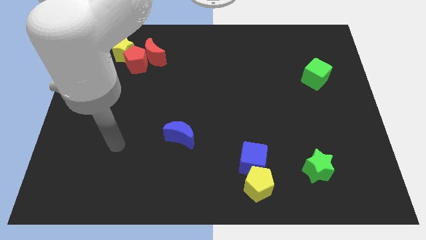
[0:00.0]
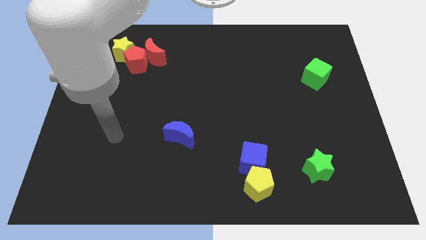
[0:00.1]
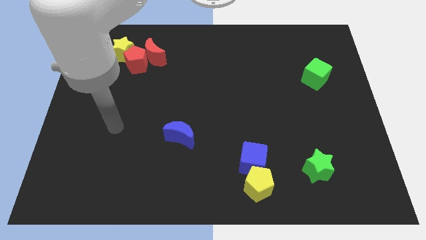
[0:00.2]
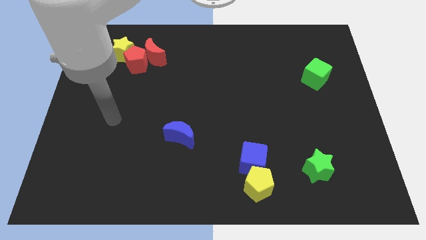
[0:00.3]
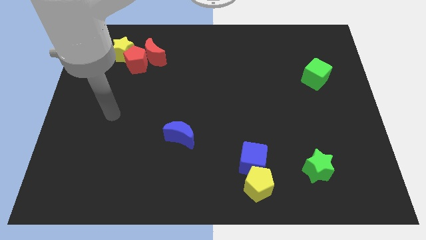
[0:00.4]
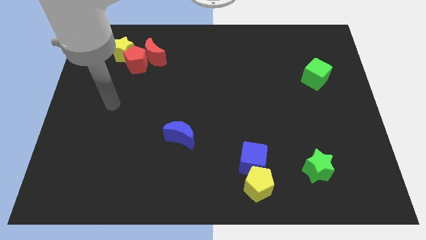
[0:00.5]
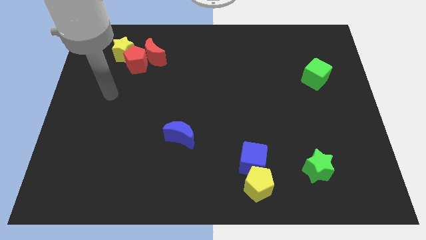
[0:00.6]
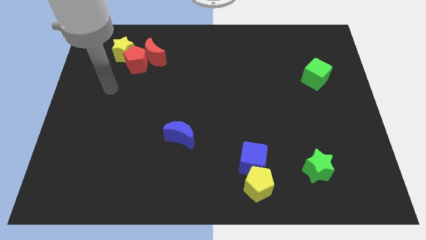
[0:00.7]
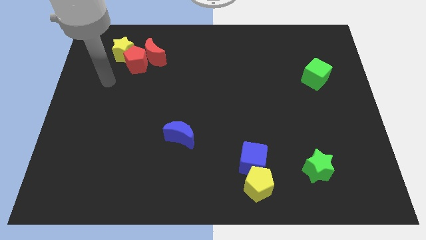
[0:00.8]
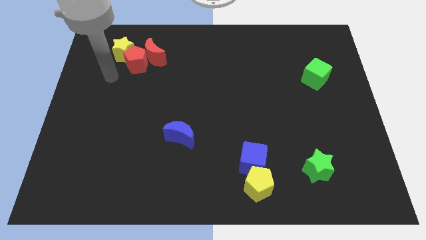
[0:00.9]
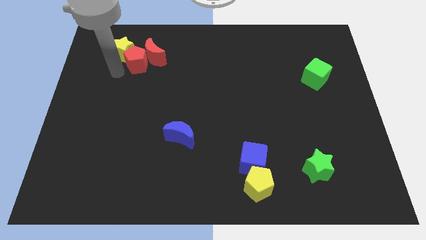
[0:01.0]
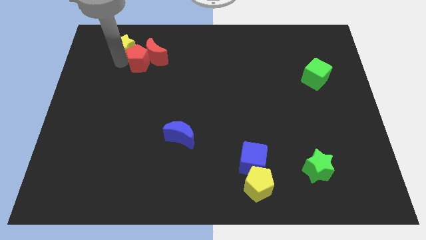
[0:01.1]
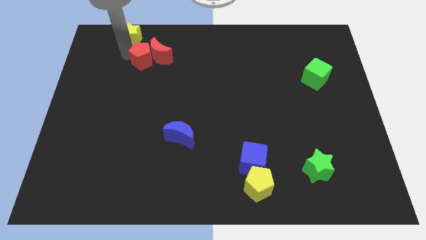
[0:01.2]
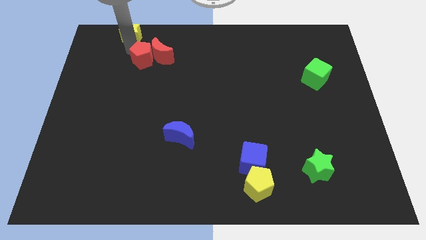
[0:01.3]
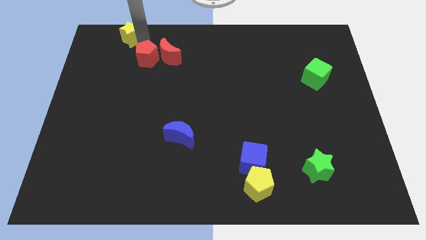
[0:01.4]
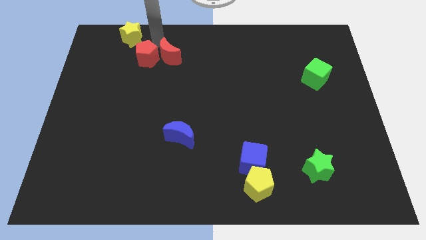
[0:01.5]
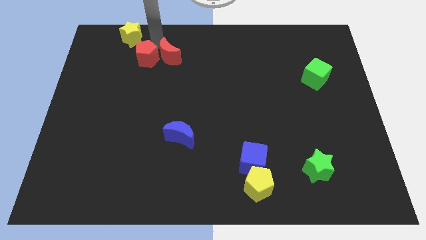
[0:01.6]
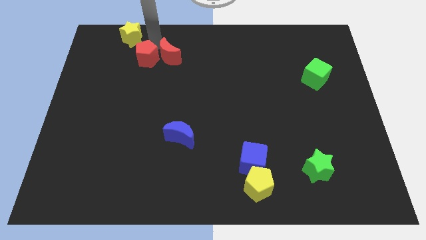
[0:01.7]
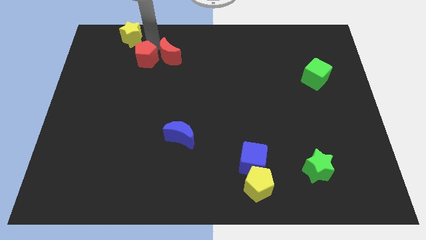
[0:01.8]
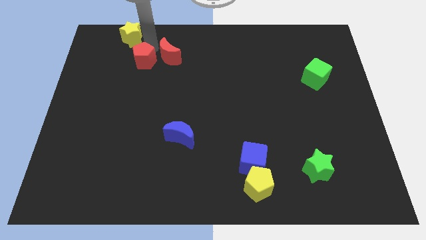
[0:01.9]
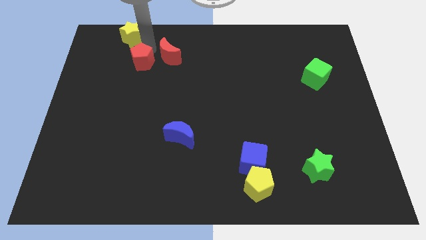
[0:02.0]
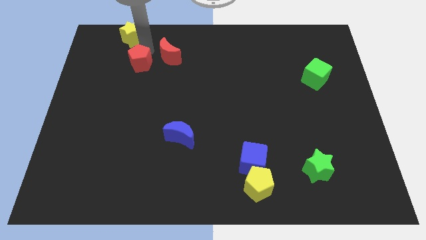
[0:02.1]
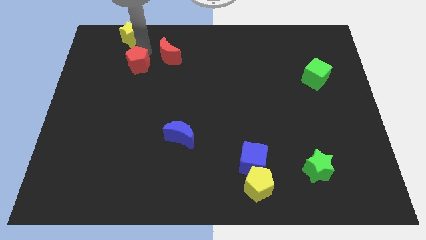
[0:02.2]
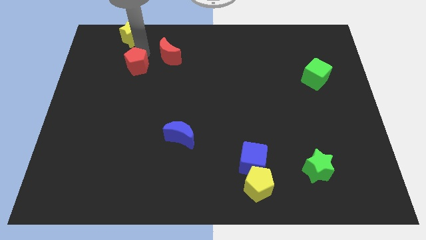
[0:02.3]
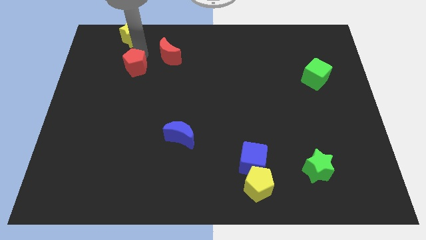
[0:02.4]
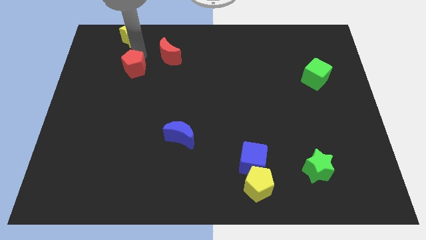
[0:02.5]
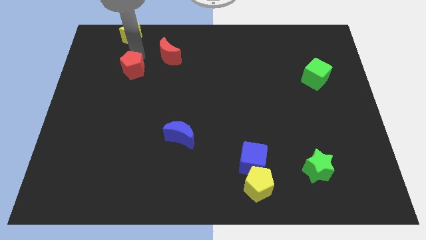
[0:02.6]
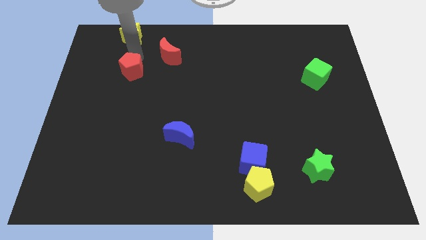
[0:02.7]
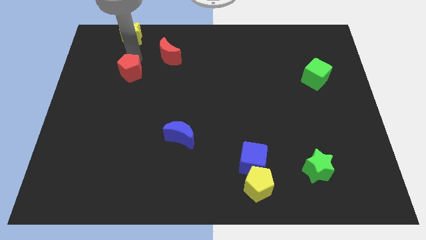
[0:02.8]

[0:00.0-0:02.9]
separate the red pentagon from the red moon and yellow star

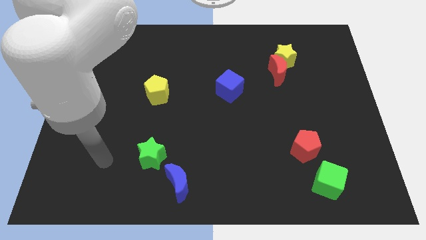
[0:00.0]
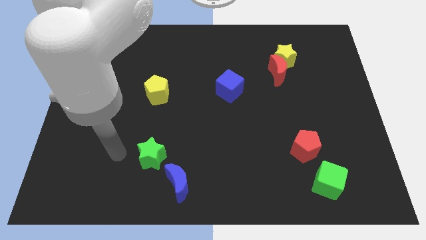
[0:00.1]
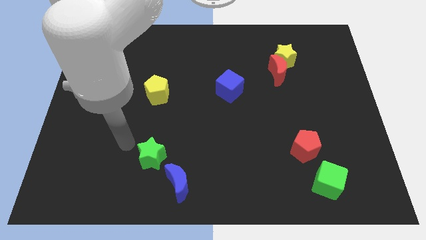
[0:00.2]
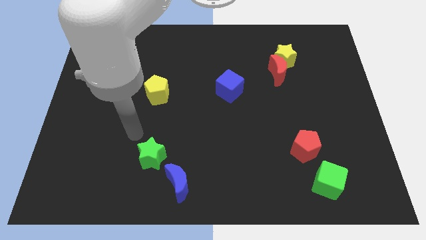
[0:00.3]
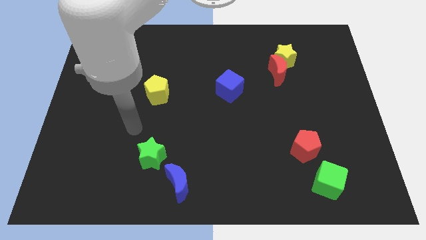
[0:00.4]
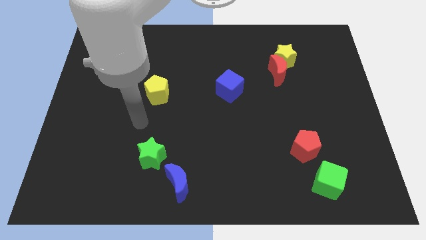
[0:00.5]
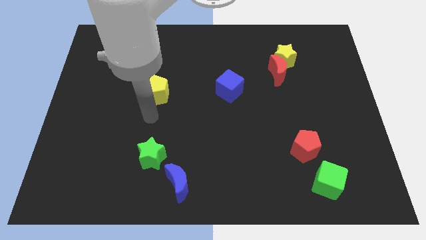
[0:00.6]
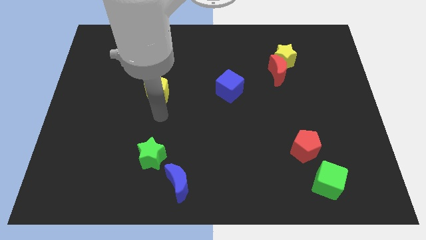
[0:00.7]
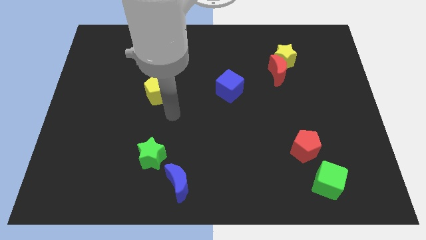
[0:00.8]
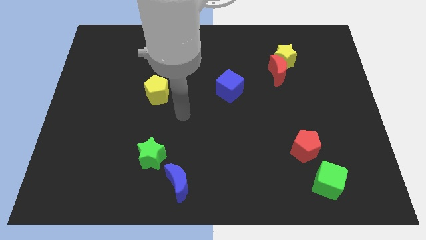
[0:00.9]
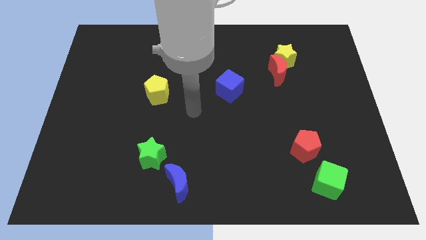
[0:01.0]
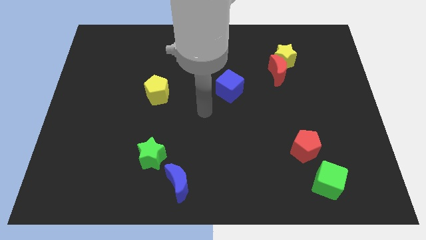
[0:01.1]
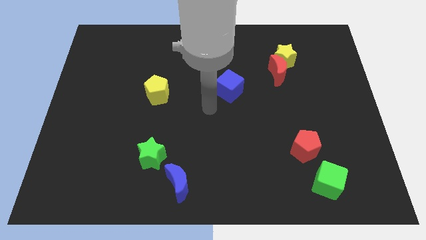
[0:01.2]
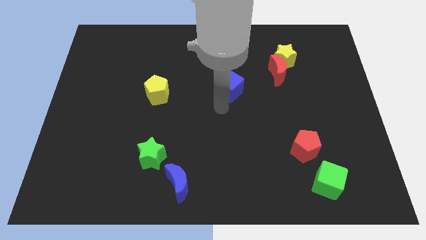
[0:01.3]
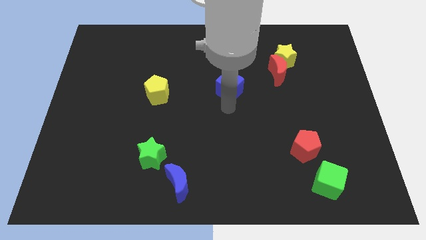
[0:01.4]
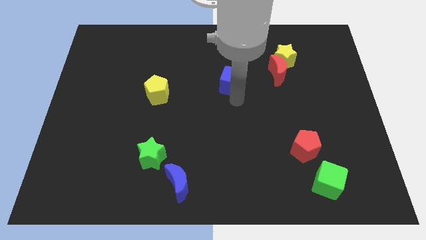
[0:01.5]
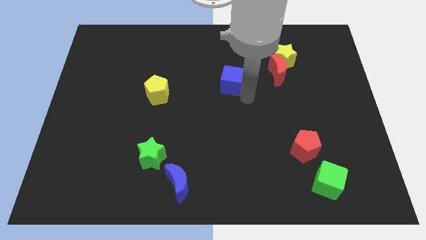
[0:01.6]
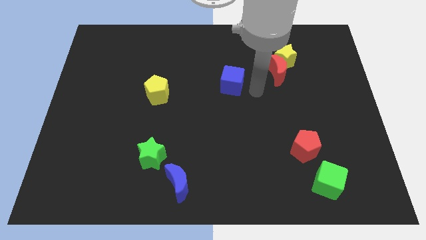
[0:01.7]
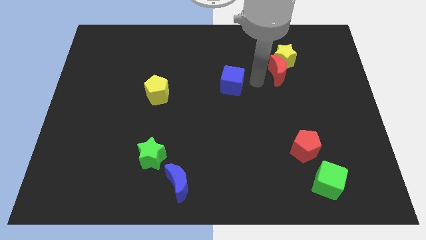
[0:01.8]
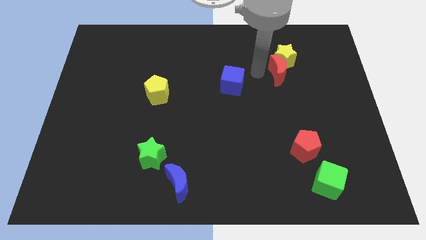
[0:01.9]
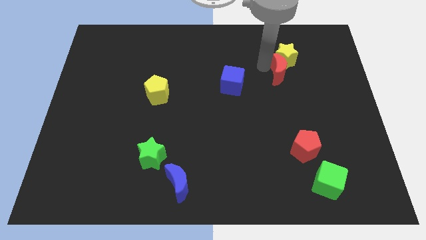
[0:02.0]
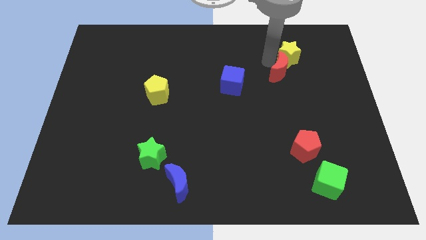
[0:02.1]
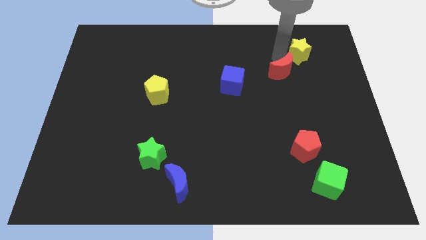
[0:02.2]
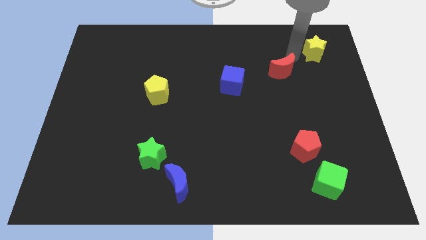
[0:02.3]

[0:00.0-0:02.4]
move the red moon away from the yellow star

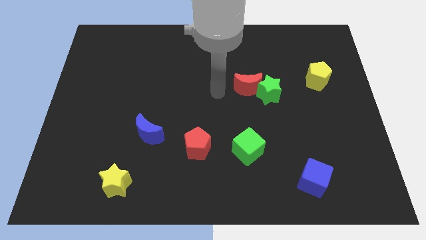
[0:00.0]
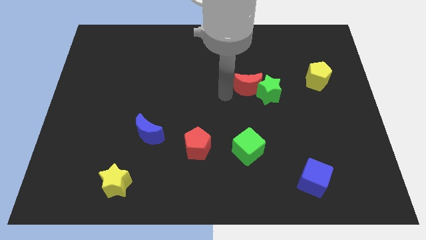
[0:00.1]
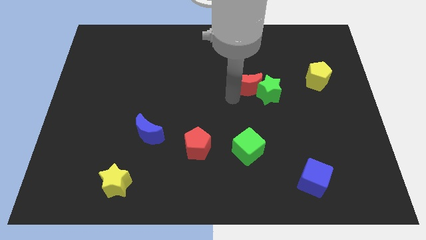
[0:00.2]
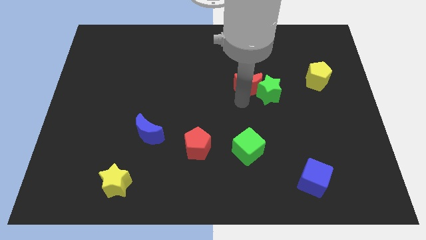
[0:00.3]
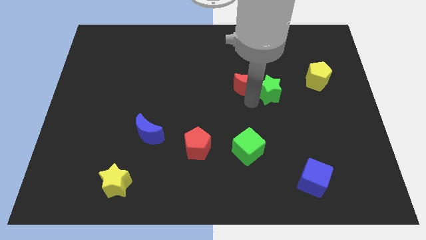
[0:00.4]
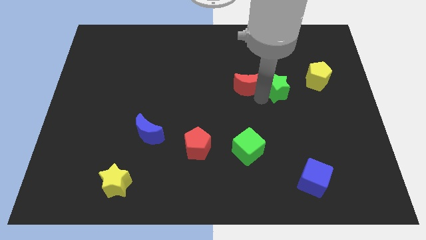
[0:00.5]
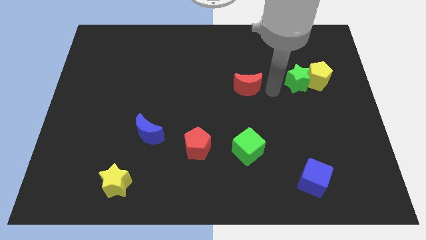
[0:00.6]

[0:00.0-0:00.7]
move the red moon away from the green star

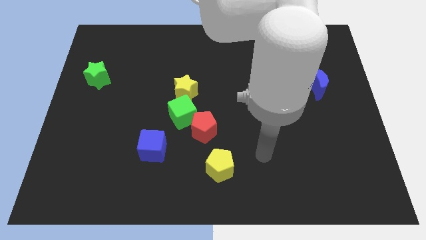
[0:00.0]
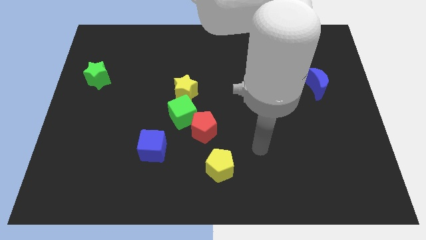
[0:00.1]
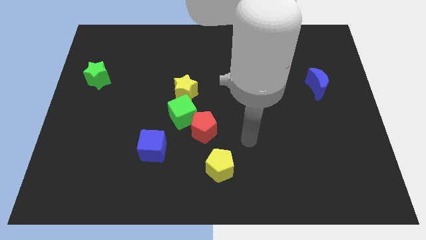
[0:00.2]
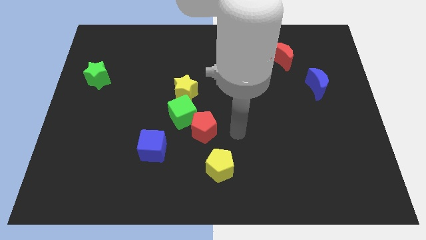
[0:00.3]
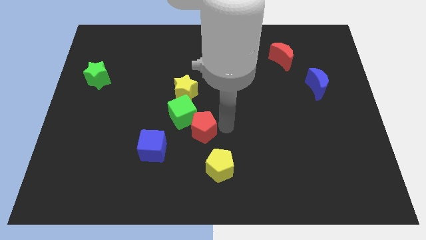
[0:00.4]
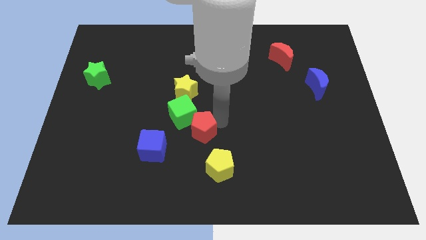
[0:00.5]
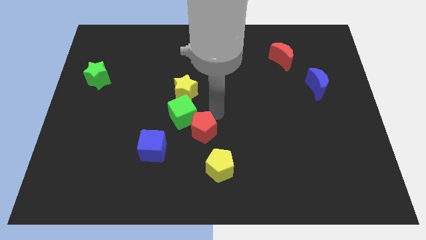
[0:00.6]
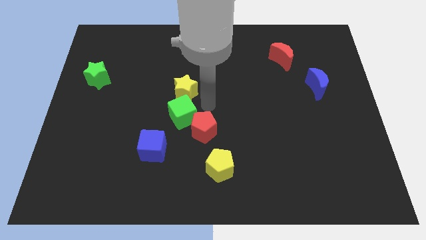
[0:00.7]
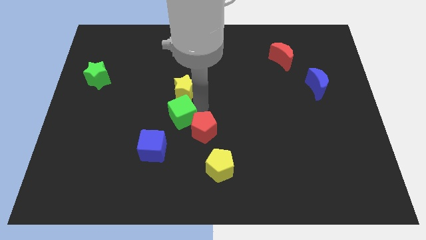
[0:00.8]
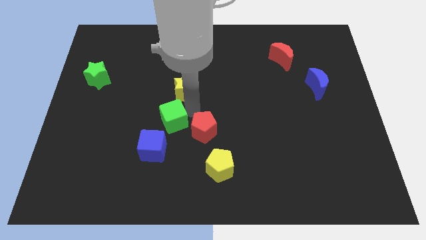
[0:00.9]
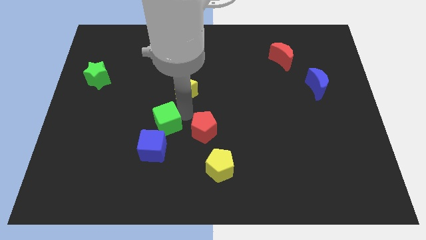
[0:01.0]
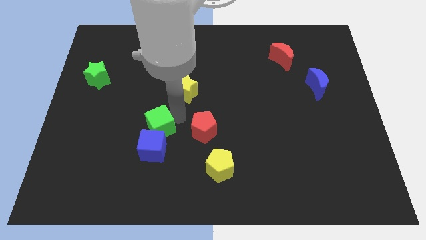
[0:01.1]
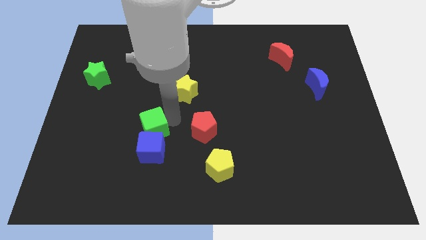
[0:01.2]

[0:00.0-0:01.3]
separate the green cube from the red pentagon and yellow star

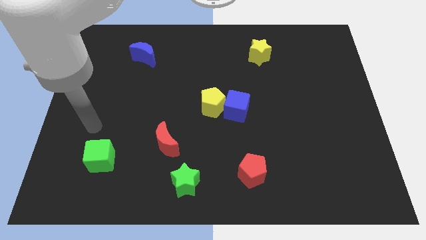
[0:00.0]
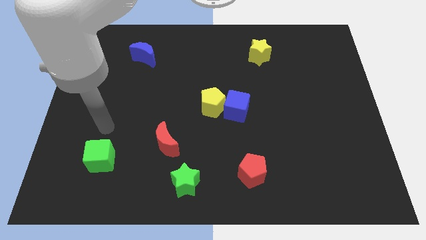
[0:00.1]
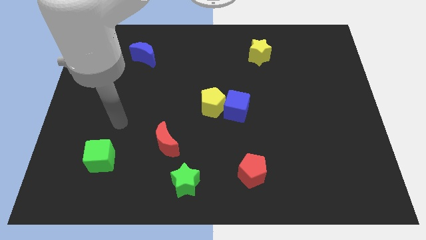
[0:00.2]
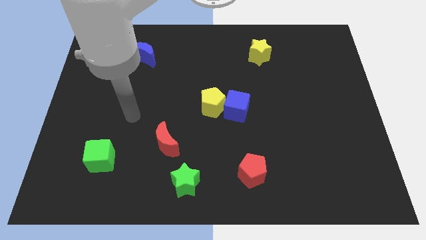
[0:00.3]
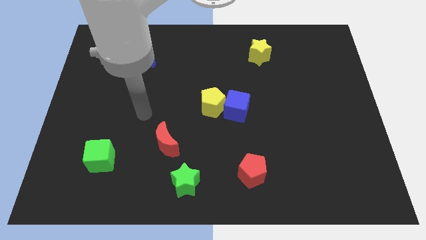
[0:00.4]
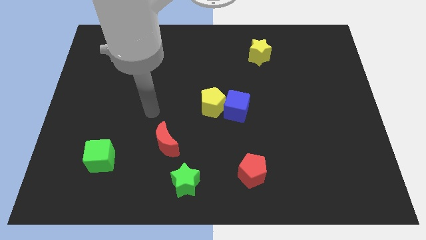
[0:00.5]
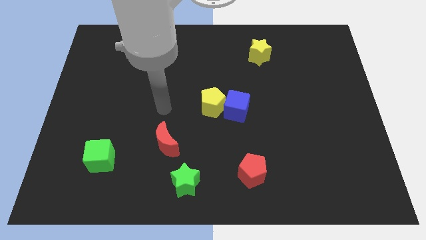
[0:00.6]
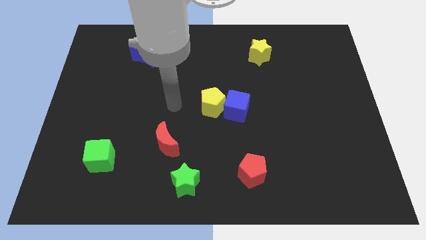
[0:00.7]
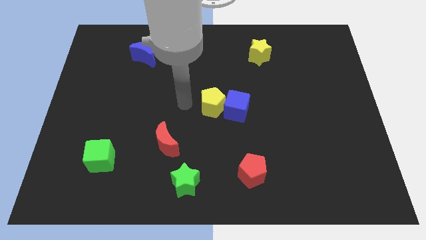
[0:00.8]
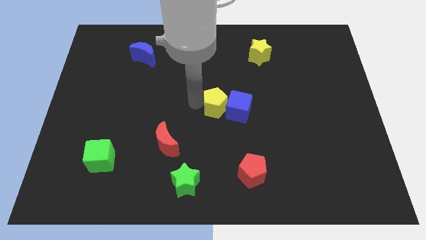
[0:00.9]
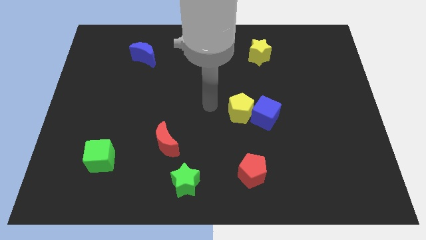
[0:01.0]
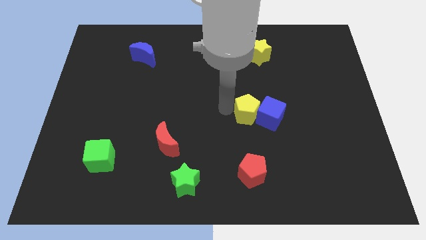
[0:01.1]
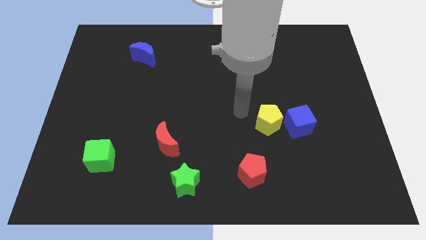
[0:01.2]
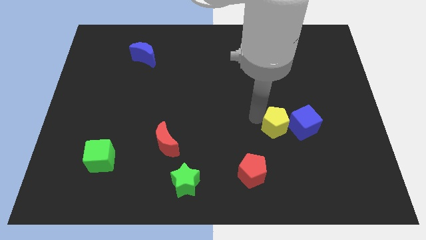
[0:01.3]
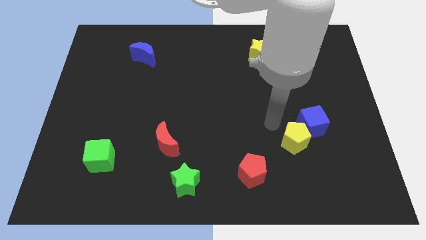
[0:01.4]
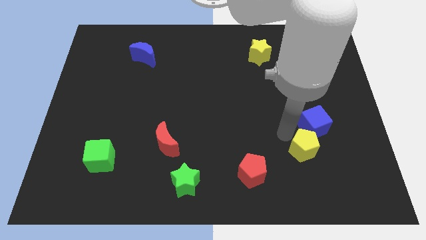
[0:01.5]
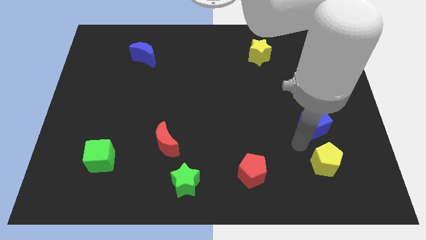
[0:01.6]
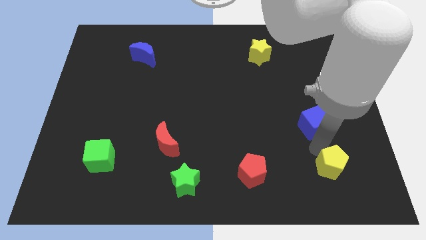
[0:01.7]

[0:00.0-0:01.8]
separate the blue cube from the yellow pentagon
